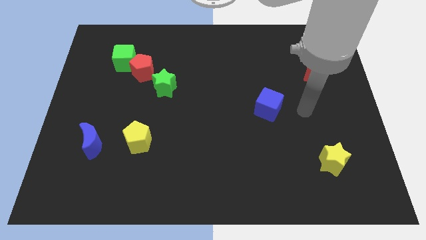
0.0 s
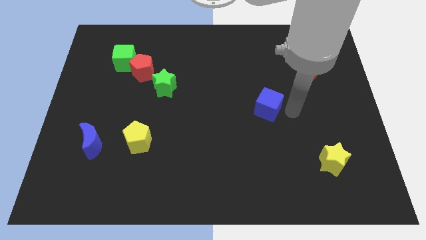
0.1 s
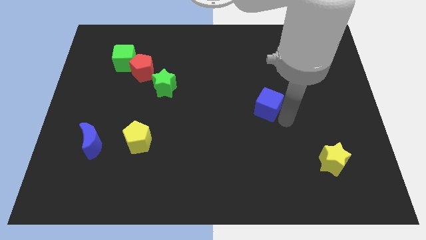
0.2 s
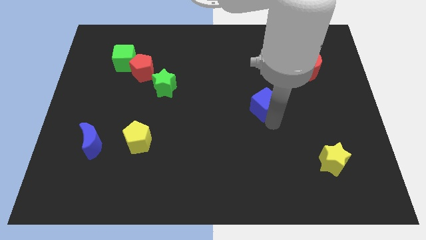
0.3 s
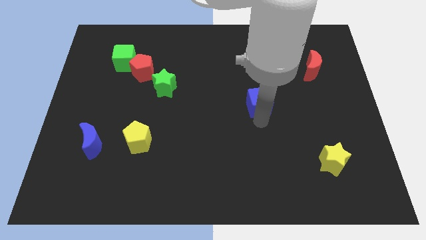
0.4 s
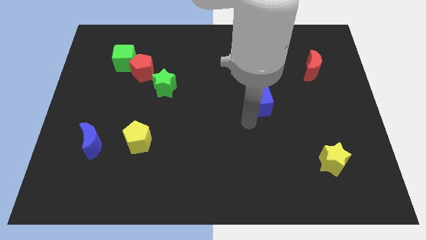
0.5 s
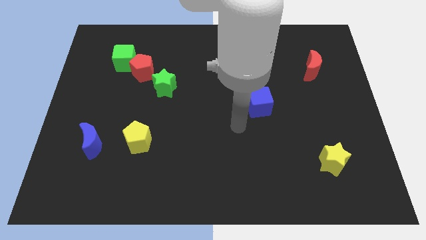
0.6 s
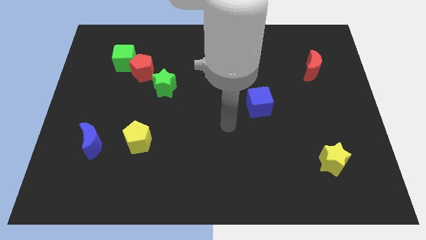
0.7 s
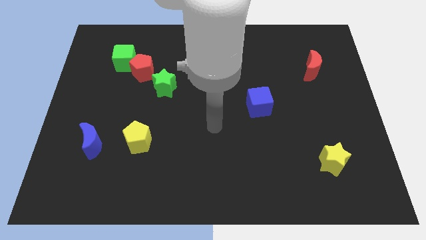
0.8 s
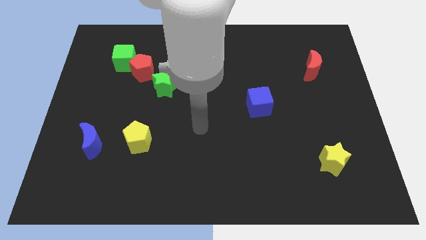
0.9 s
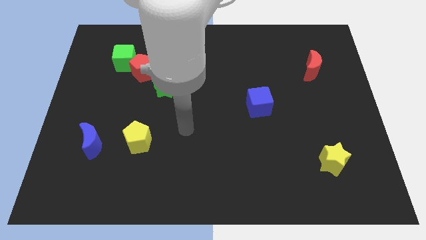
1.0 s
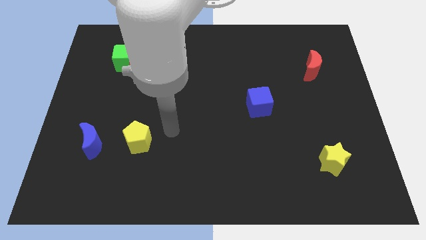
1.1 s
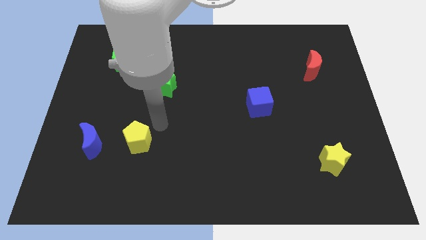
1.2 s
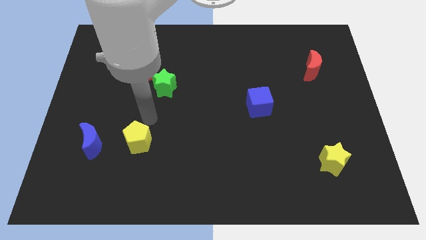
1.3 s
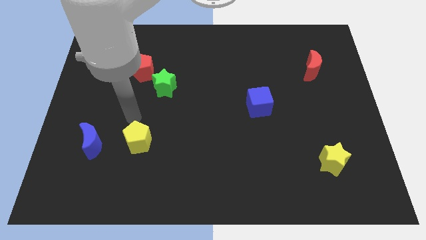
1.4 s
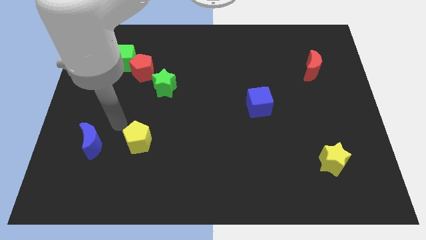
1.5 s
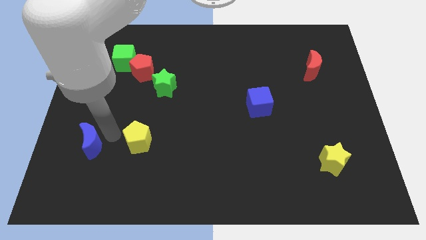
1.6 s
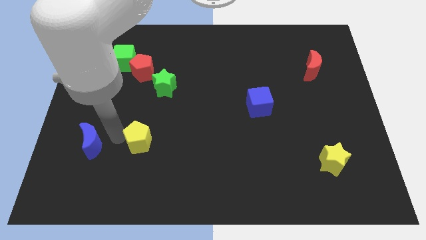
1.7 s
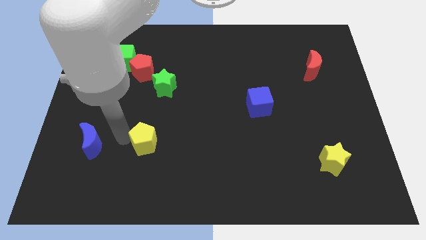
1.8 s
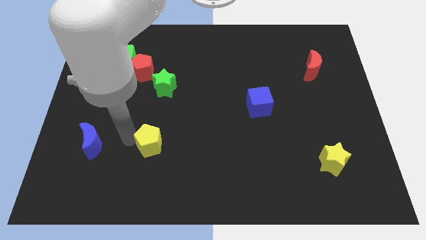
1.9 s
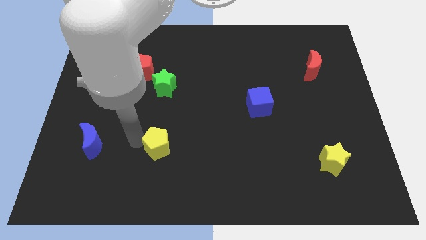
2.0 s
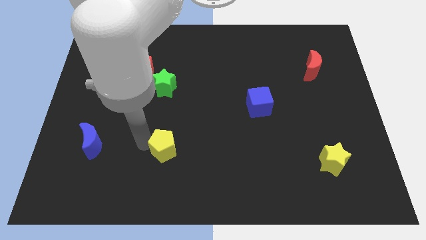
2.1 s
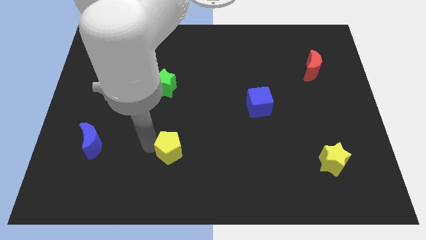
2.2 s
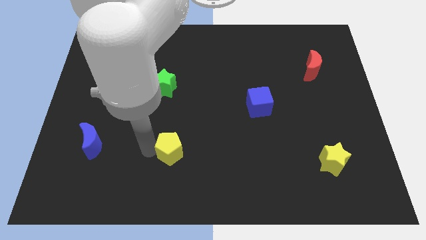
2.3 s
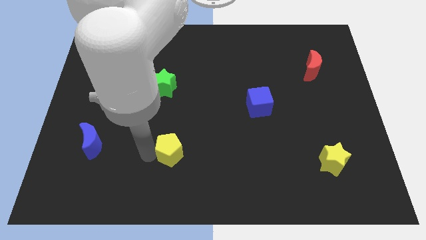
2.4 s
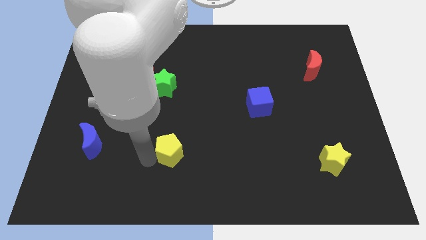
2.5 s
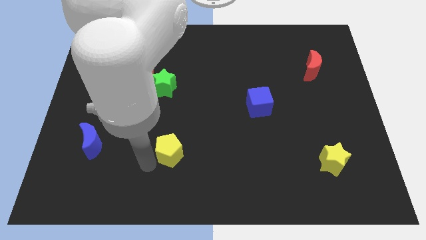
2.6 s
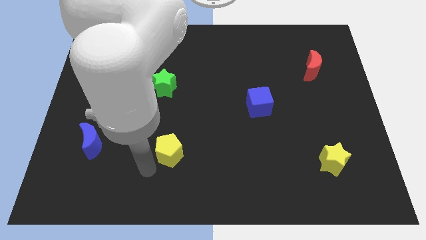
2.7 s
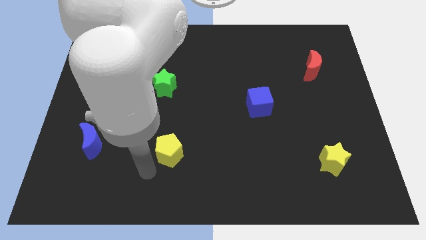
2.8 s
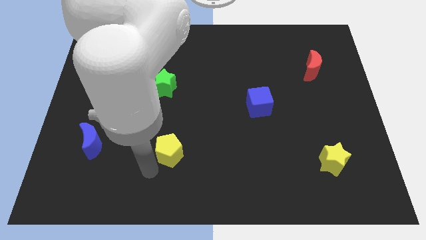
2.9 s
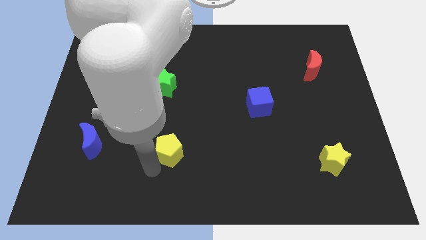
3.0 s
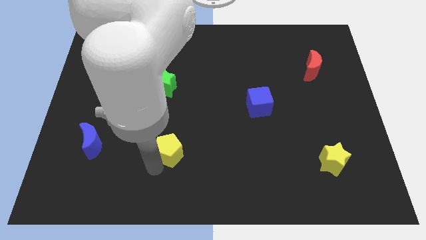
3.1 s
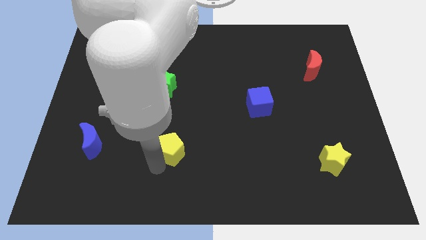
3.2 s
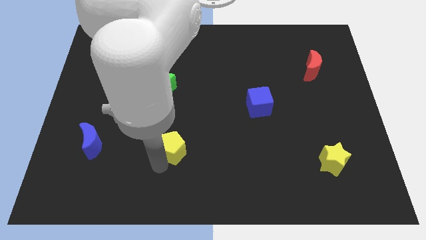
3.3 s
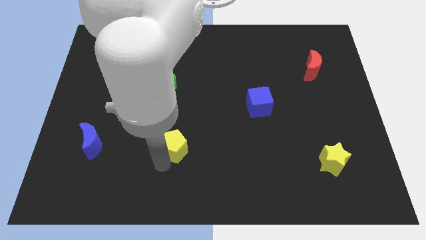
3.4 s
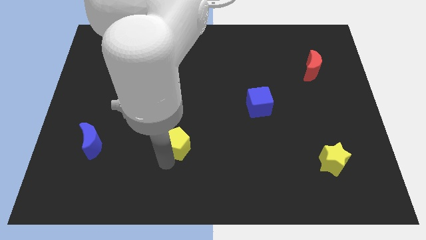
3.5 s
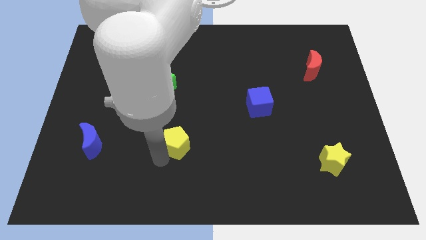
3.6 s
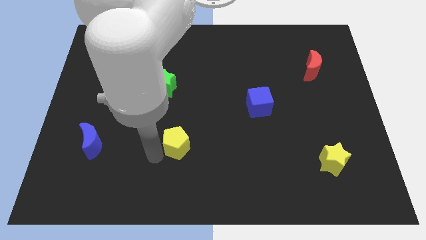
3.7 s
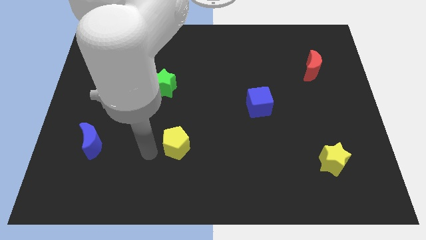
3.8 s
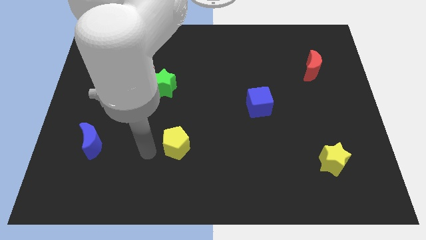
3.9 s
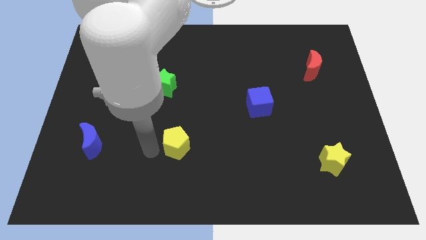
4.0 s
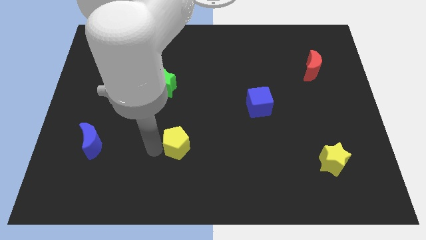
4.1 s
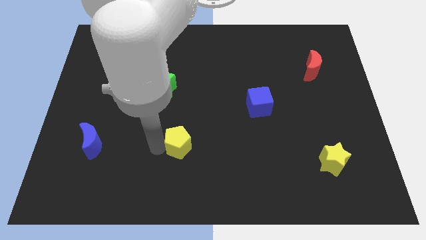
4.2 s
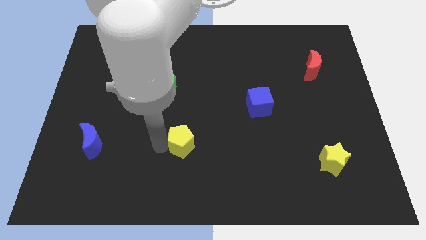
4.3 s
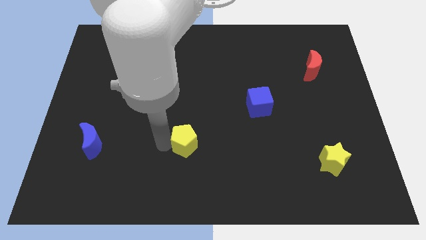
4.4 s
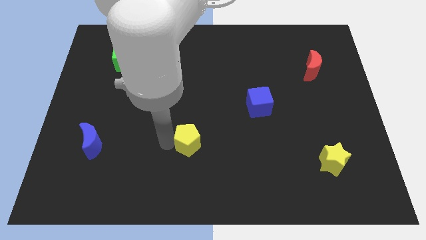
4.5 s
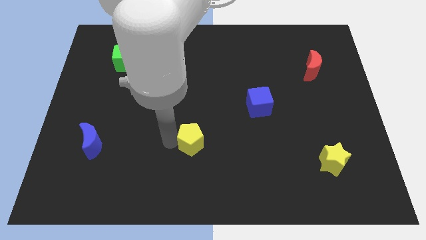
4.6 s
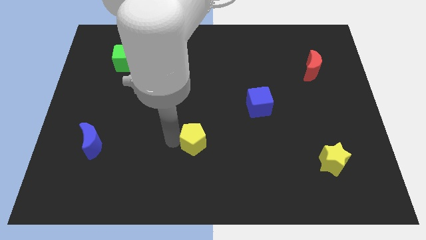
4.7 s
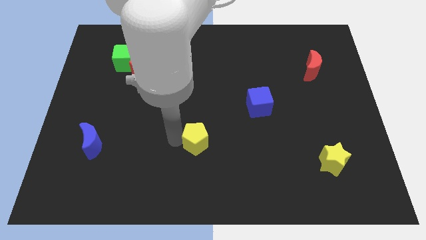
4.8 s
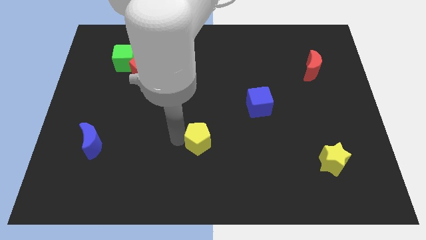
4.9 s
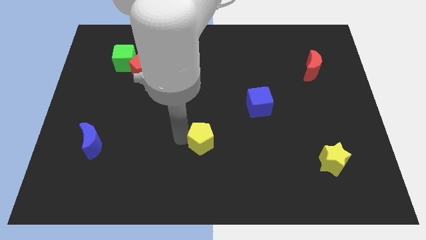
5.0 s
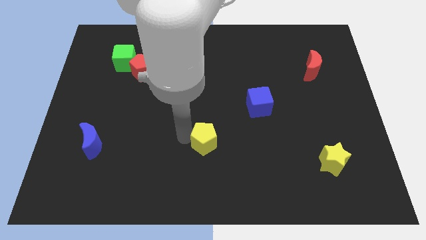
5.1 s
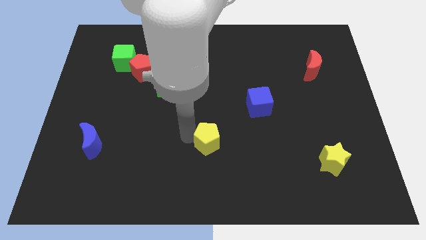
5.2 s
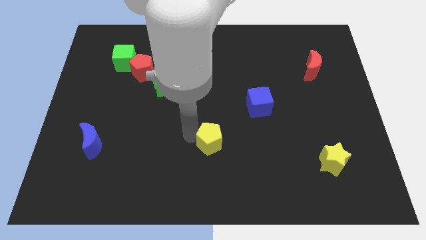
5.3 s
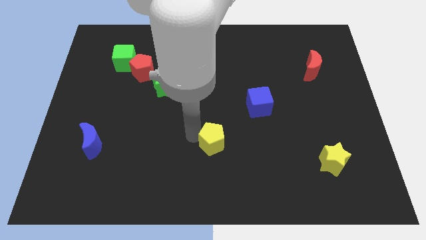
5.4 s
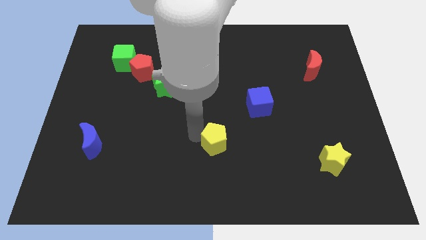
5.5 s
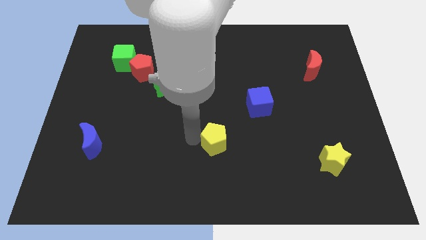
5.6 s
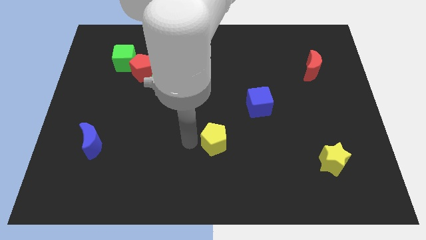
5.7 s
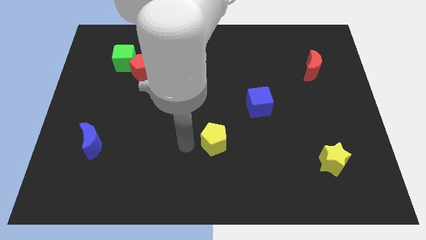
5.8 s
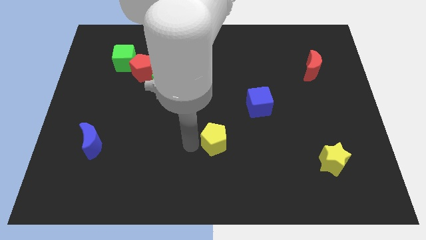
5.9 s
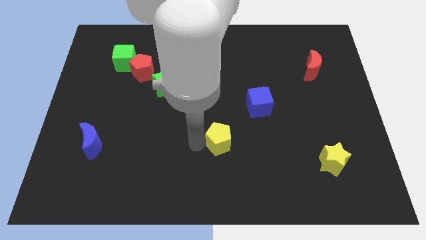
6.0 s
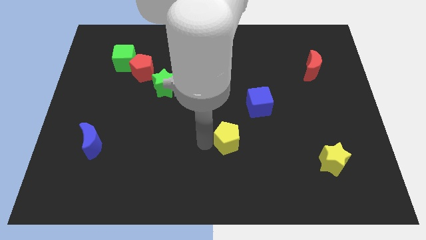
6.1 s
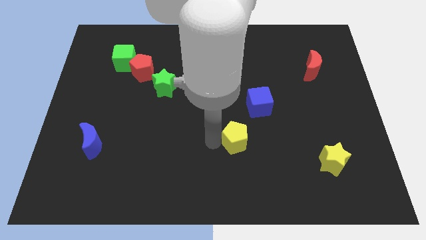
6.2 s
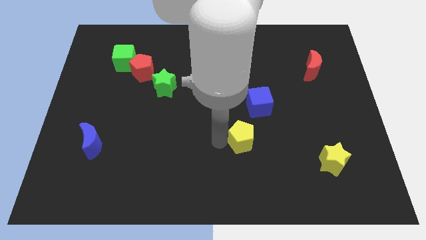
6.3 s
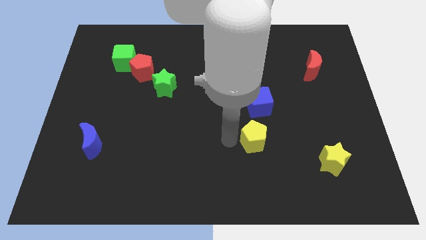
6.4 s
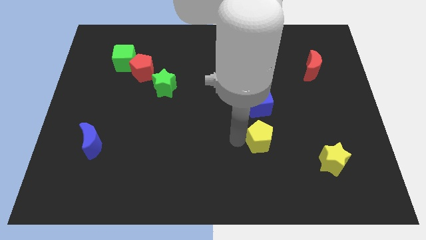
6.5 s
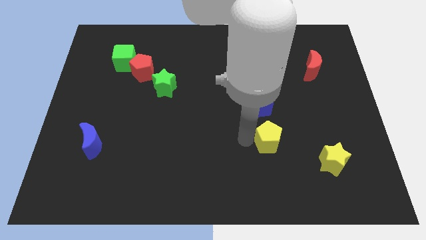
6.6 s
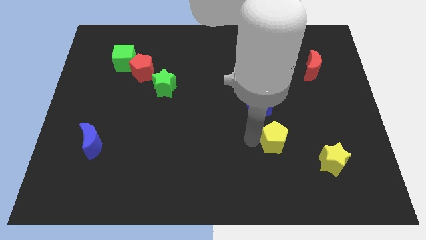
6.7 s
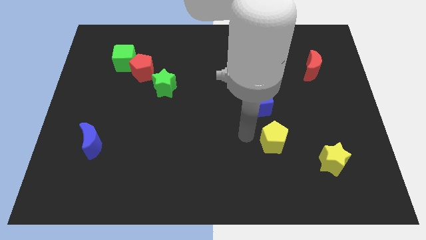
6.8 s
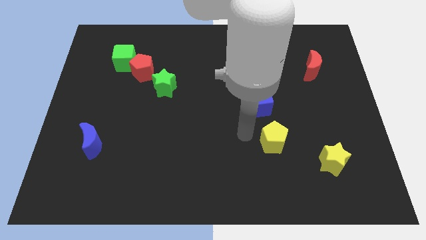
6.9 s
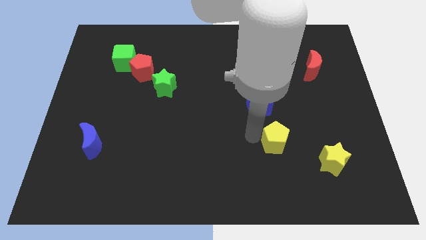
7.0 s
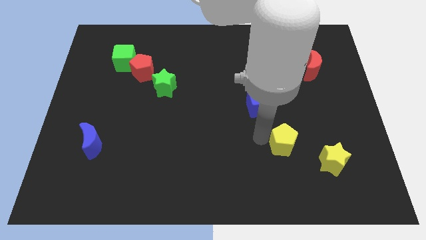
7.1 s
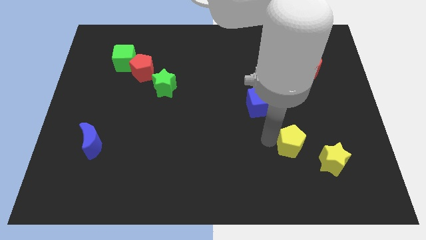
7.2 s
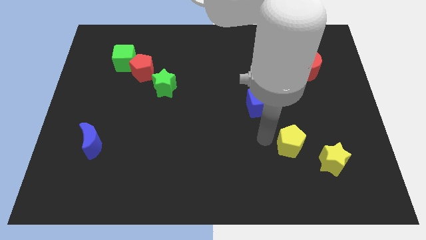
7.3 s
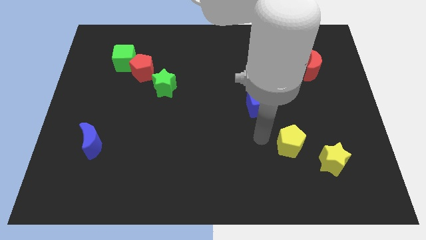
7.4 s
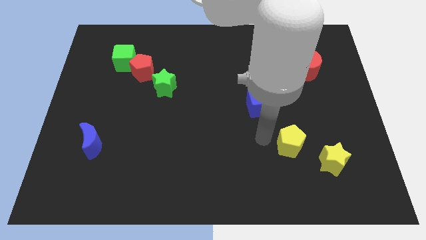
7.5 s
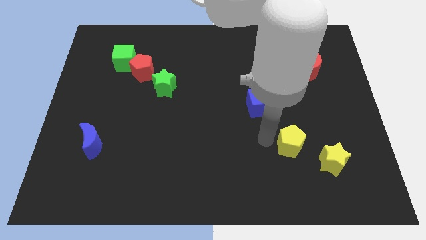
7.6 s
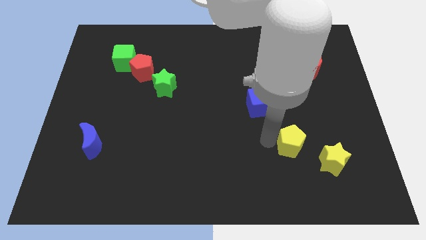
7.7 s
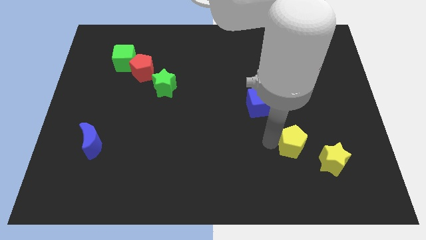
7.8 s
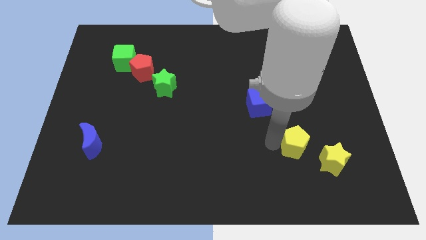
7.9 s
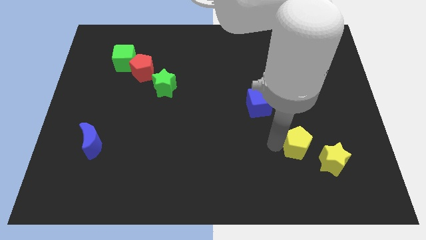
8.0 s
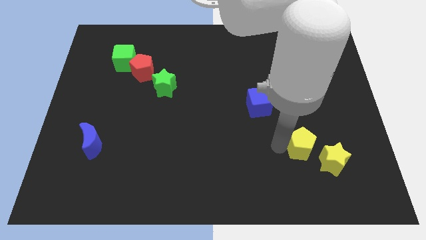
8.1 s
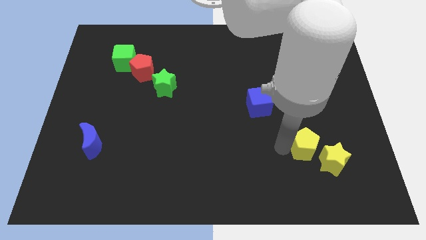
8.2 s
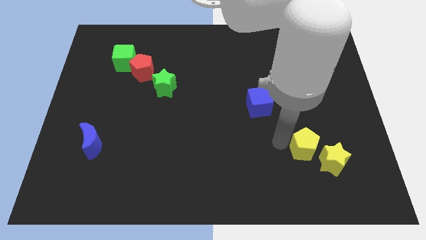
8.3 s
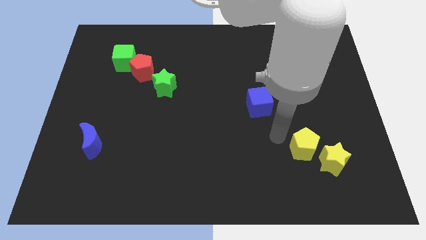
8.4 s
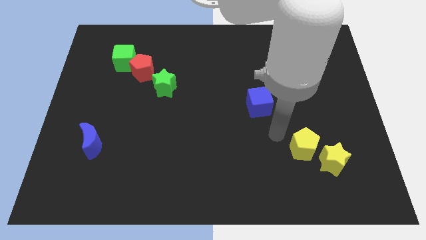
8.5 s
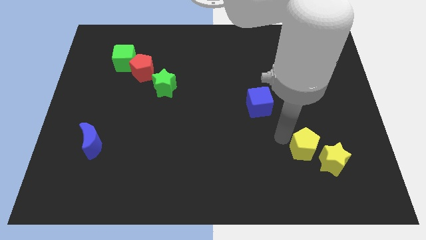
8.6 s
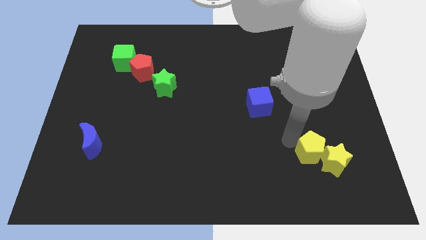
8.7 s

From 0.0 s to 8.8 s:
slide the yellow pentagon towards the yellow star
